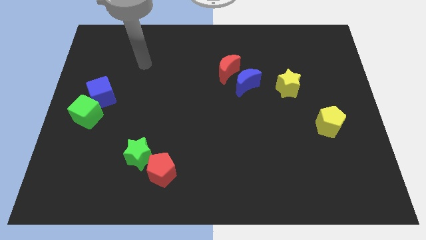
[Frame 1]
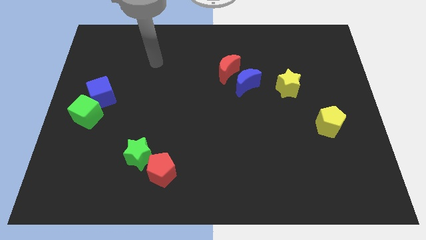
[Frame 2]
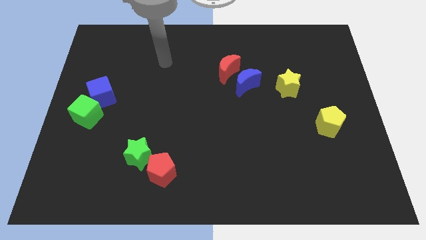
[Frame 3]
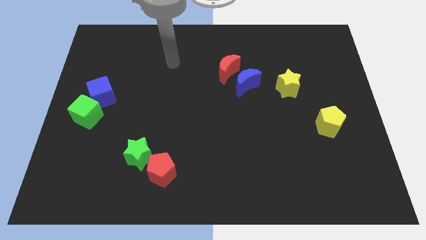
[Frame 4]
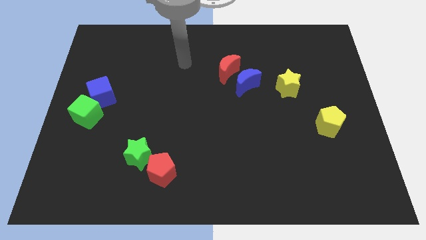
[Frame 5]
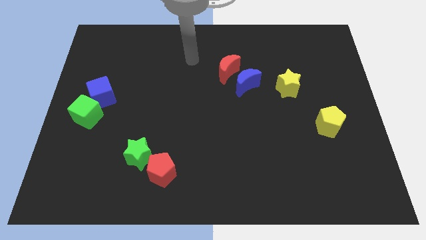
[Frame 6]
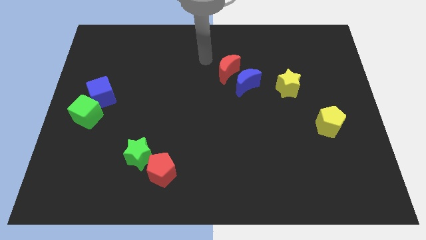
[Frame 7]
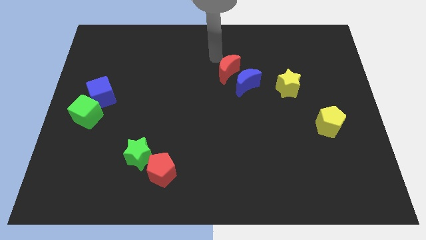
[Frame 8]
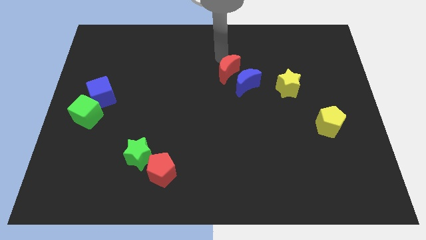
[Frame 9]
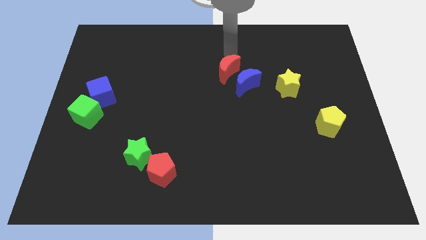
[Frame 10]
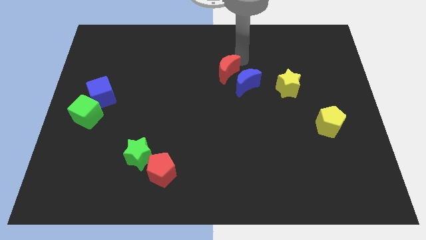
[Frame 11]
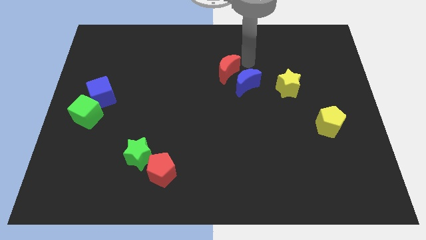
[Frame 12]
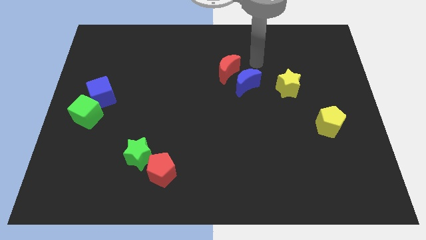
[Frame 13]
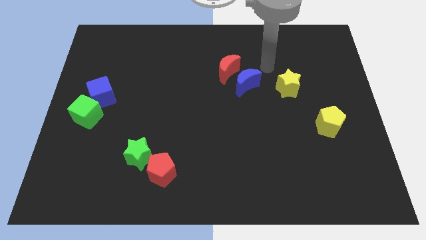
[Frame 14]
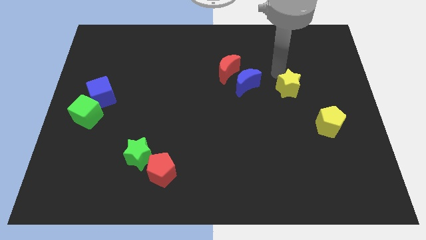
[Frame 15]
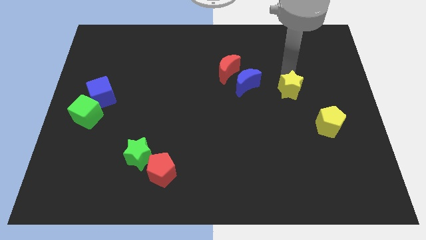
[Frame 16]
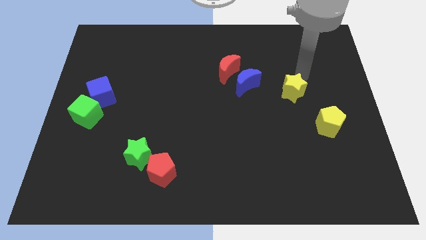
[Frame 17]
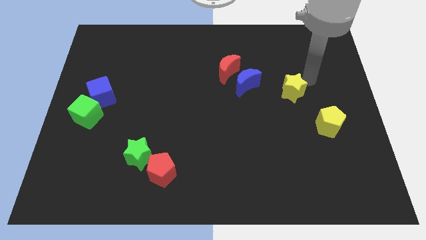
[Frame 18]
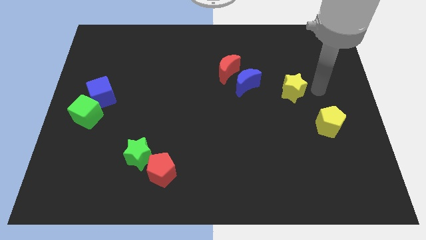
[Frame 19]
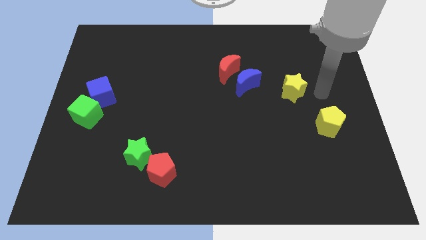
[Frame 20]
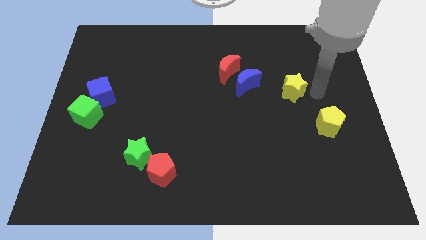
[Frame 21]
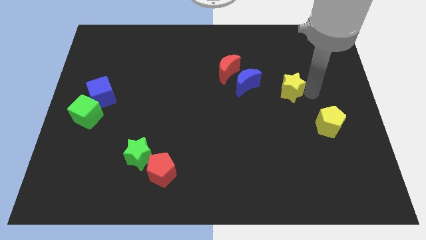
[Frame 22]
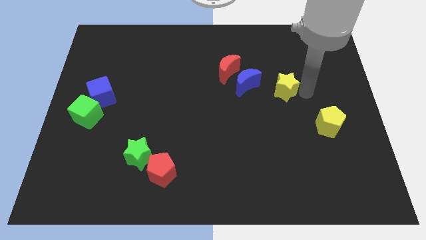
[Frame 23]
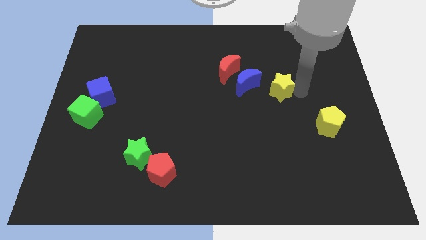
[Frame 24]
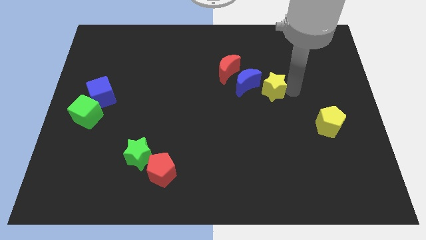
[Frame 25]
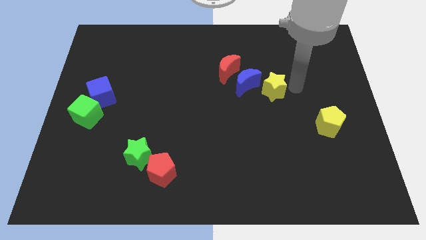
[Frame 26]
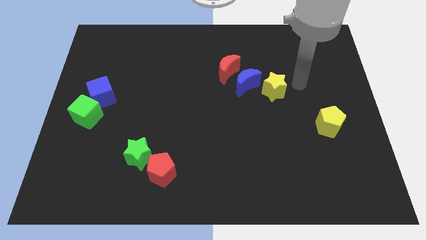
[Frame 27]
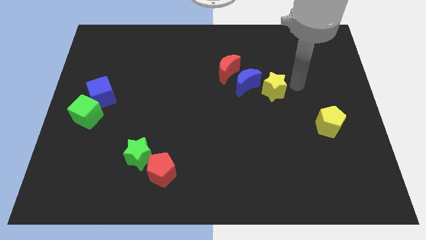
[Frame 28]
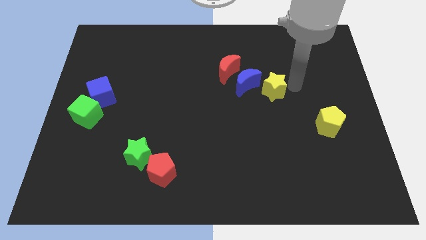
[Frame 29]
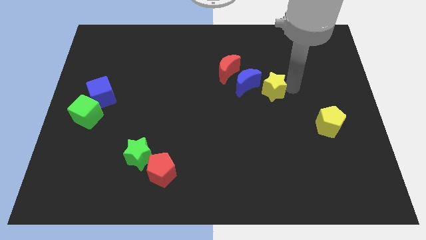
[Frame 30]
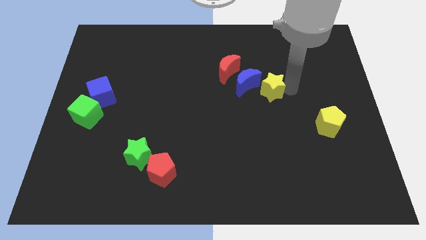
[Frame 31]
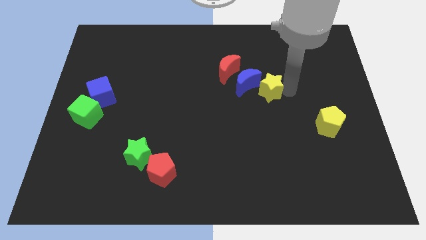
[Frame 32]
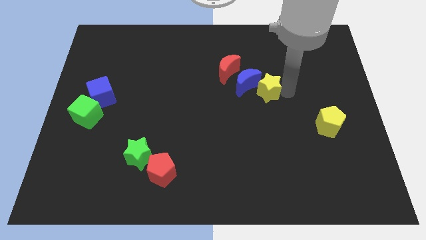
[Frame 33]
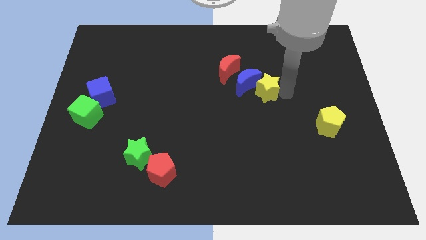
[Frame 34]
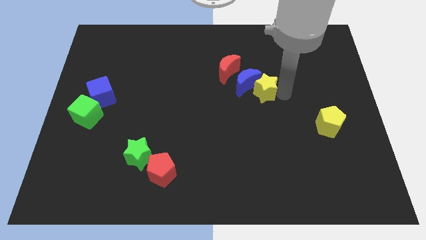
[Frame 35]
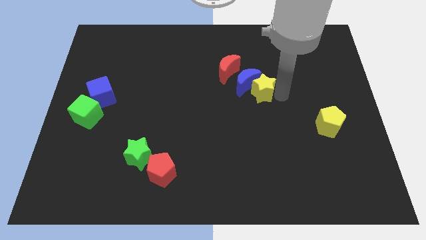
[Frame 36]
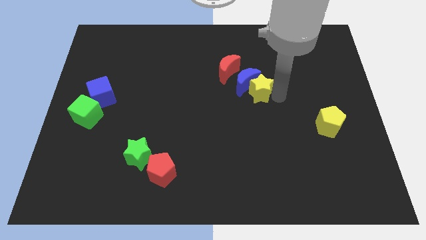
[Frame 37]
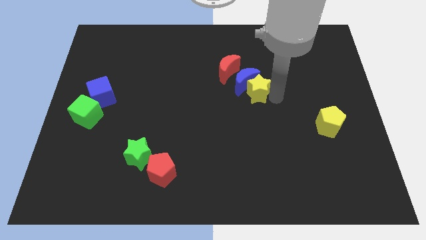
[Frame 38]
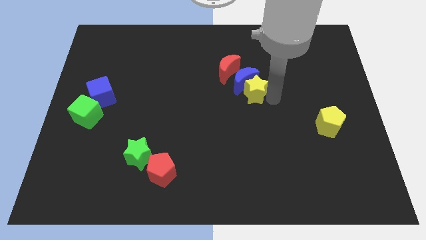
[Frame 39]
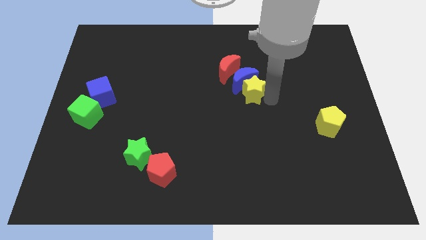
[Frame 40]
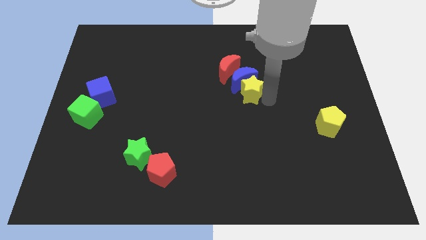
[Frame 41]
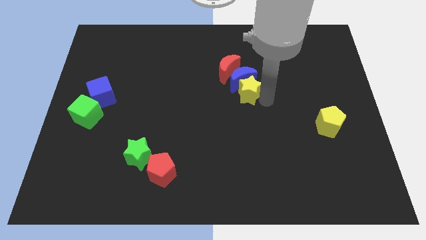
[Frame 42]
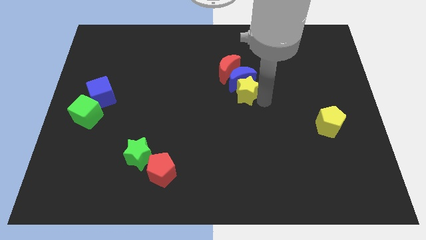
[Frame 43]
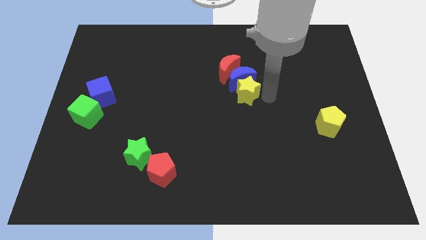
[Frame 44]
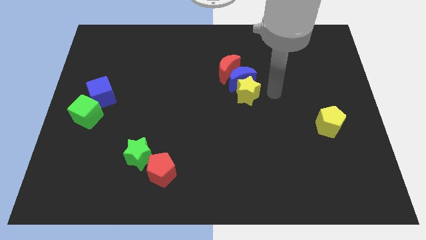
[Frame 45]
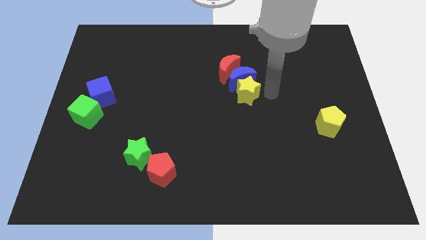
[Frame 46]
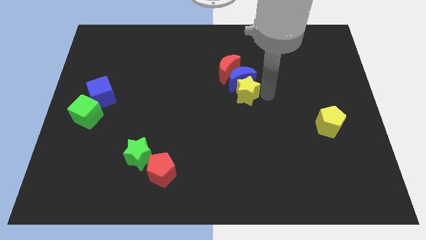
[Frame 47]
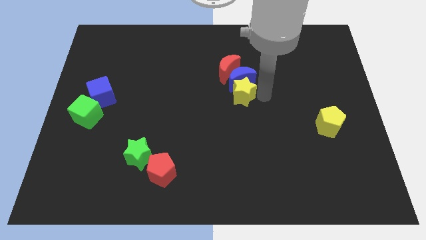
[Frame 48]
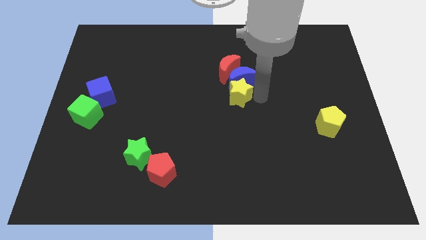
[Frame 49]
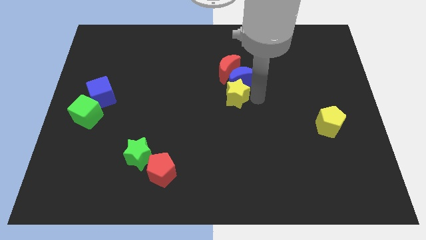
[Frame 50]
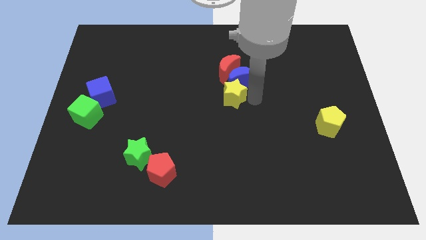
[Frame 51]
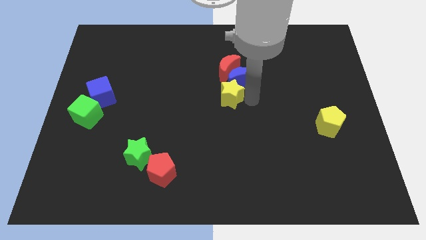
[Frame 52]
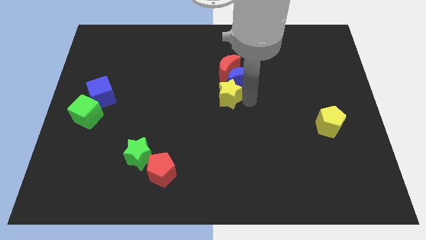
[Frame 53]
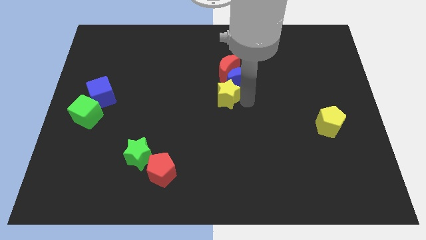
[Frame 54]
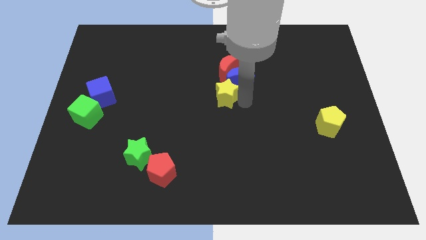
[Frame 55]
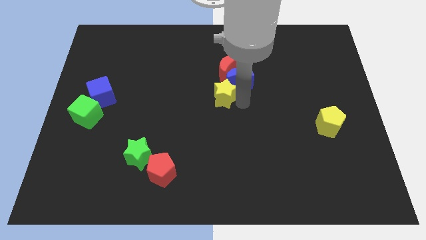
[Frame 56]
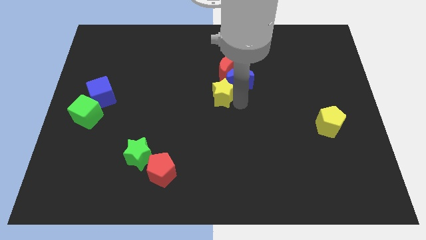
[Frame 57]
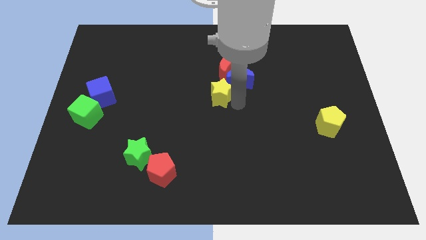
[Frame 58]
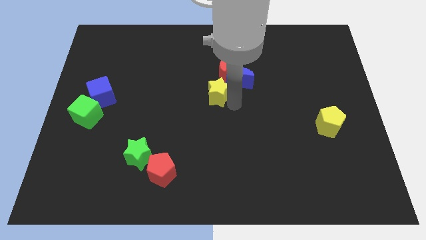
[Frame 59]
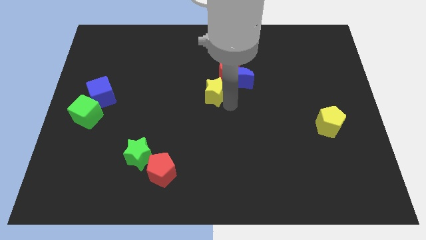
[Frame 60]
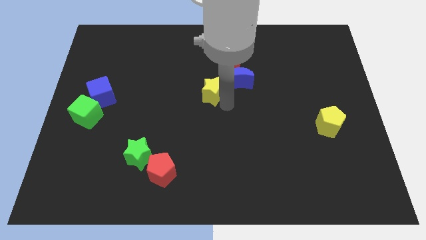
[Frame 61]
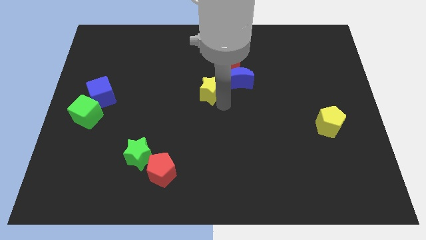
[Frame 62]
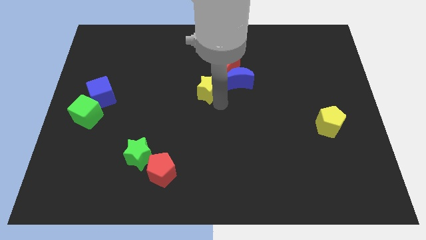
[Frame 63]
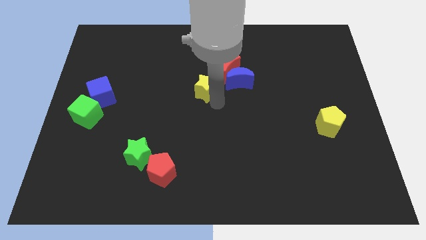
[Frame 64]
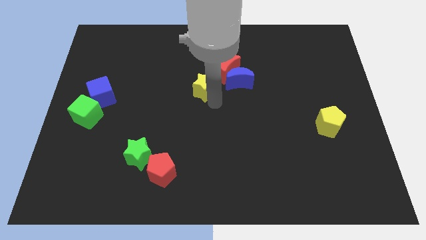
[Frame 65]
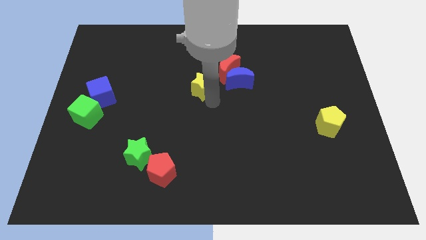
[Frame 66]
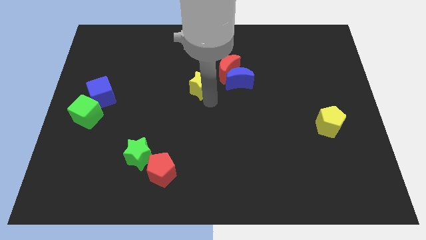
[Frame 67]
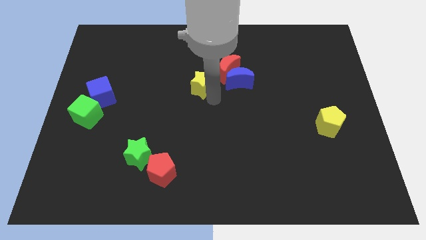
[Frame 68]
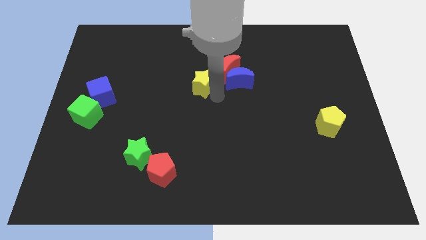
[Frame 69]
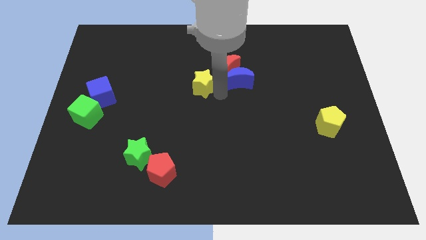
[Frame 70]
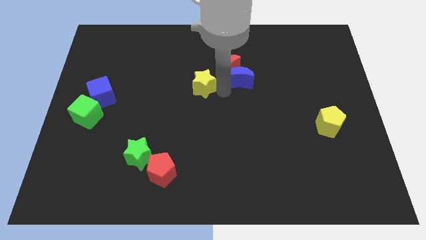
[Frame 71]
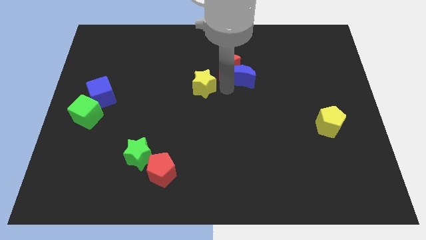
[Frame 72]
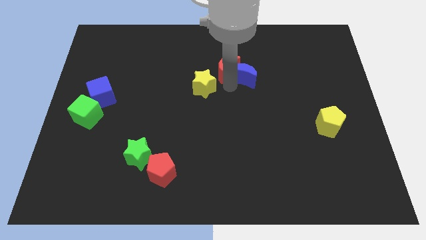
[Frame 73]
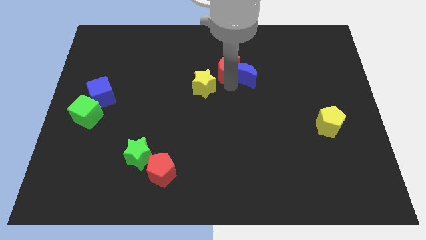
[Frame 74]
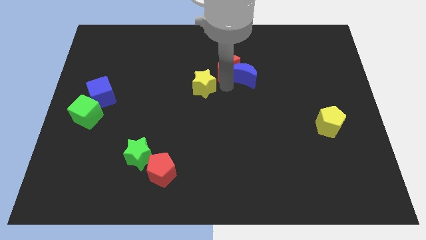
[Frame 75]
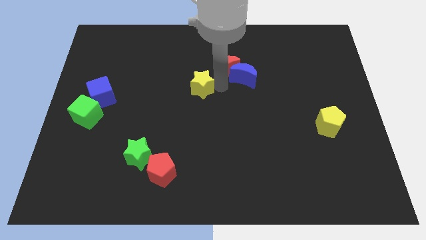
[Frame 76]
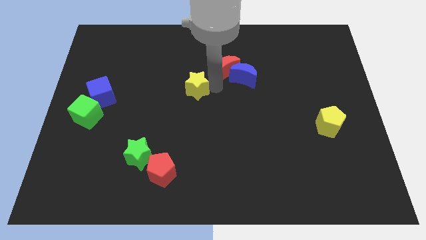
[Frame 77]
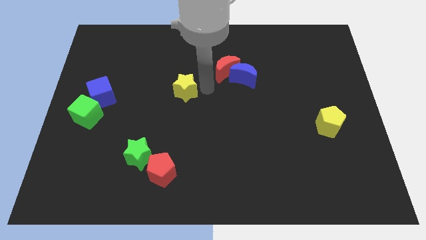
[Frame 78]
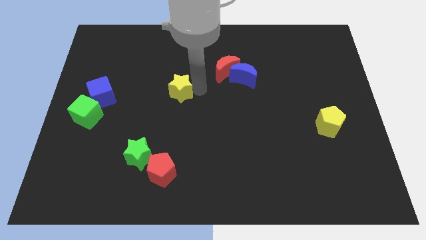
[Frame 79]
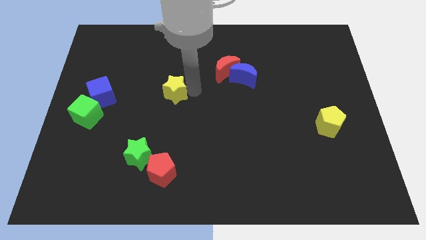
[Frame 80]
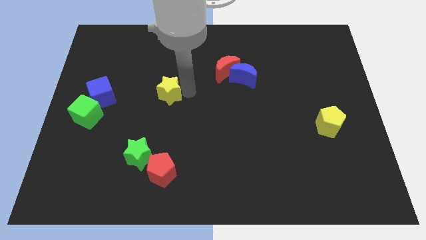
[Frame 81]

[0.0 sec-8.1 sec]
push the yellow star to the right of the blue cube
